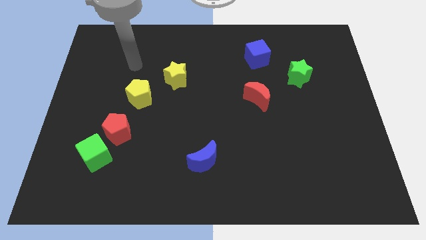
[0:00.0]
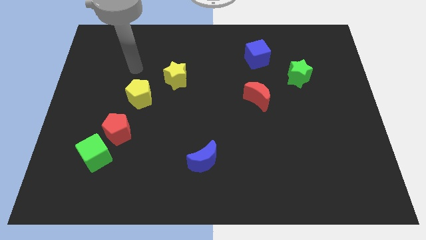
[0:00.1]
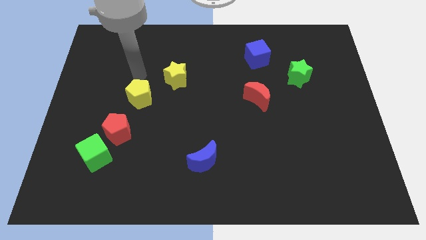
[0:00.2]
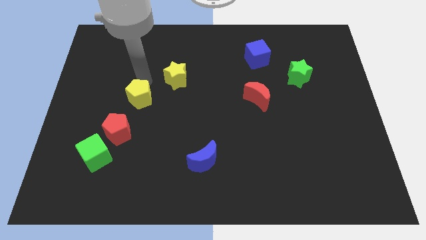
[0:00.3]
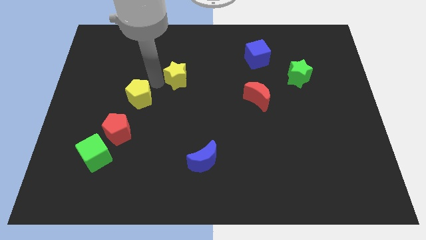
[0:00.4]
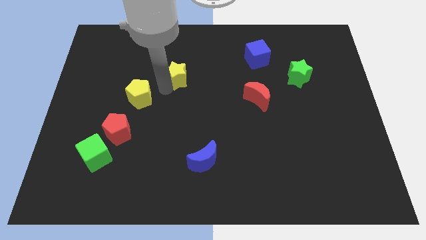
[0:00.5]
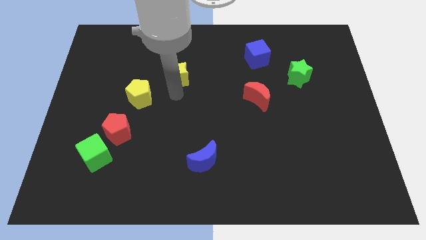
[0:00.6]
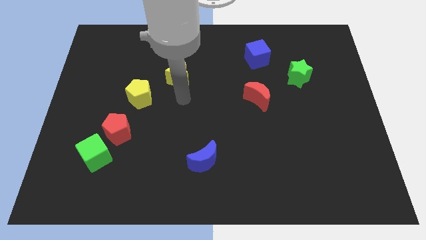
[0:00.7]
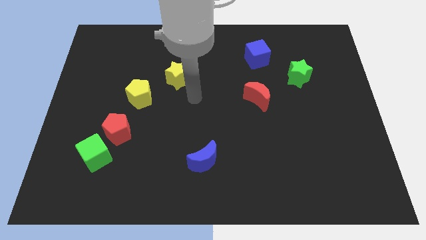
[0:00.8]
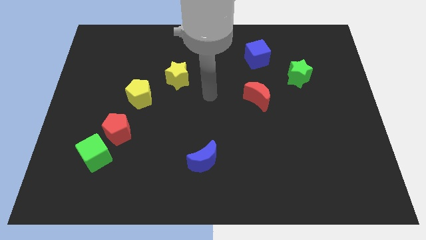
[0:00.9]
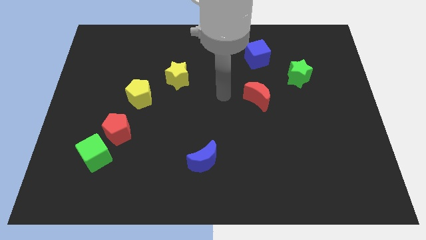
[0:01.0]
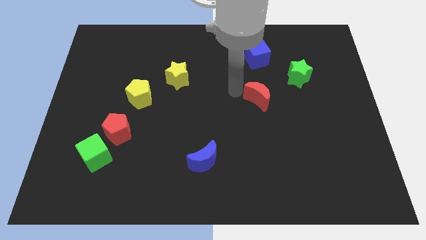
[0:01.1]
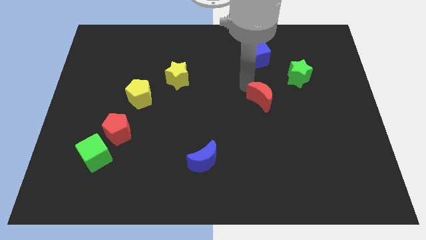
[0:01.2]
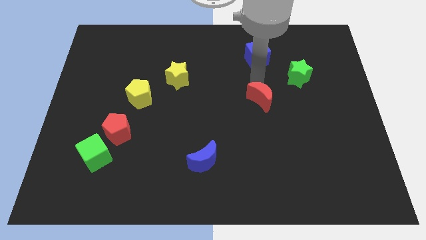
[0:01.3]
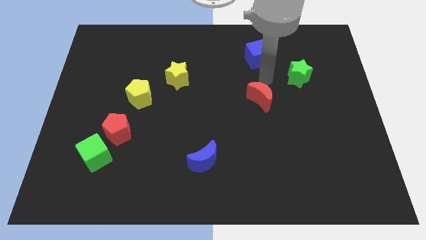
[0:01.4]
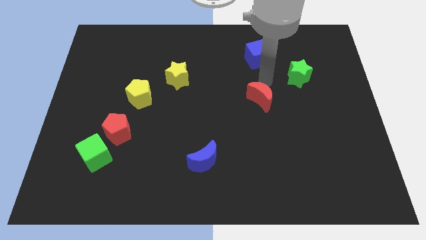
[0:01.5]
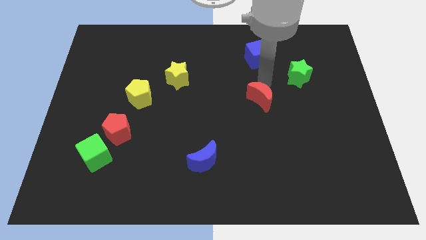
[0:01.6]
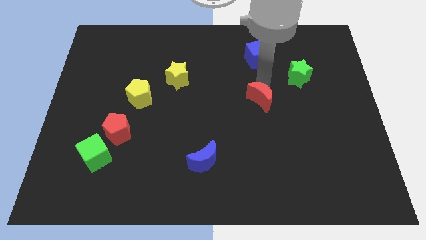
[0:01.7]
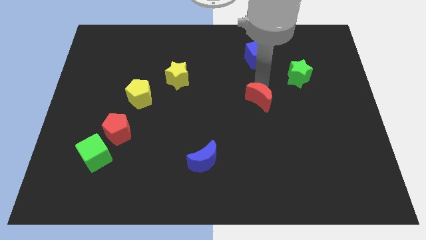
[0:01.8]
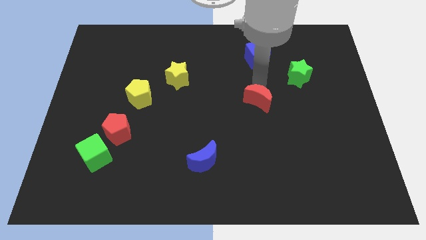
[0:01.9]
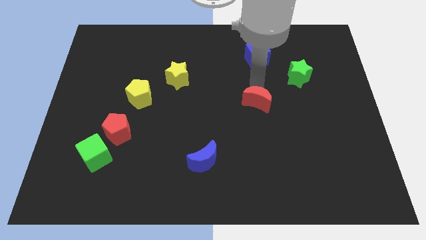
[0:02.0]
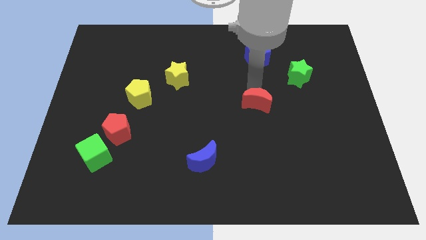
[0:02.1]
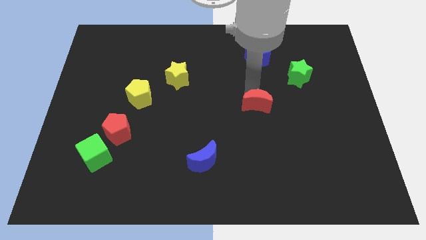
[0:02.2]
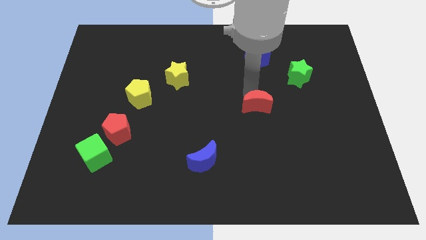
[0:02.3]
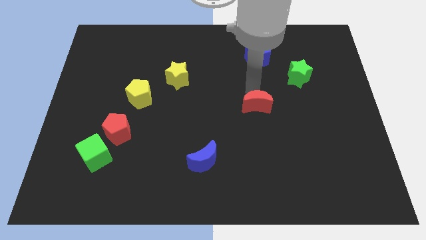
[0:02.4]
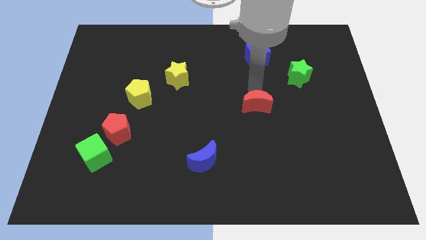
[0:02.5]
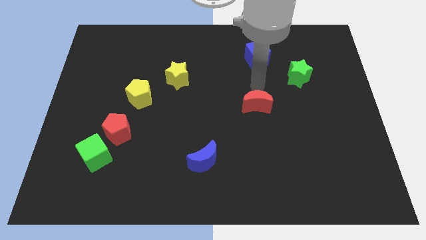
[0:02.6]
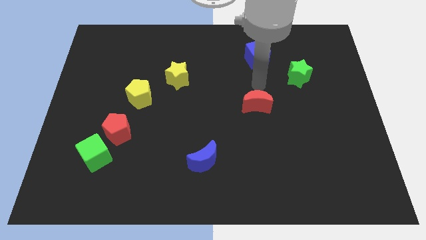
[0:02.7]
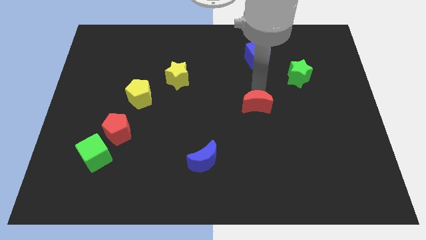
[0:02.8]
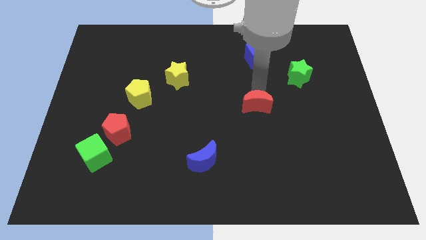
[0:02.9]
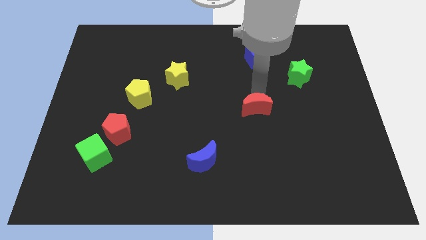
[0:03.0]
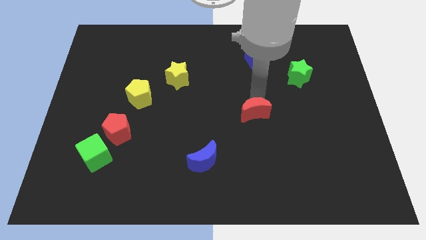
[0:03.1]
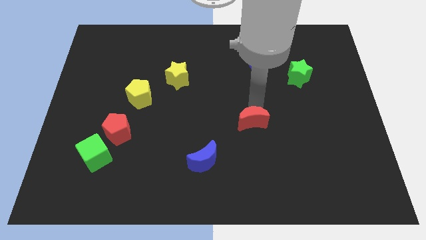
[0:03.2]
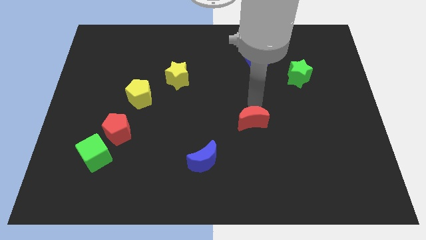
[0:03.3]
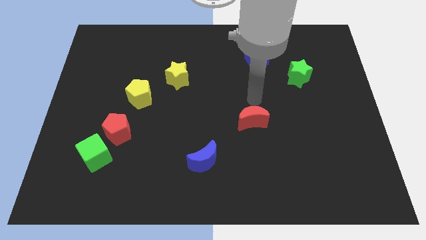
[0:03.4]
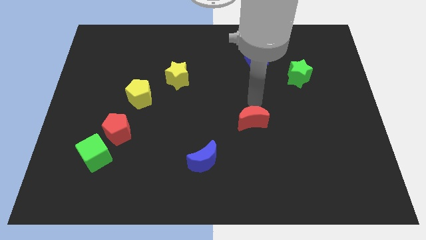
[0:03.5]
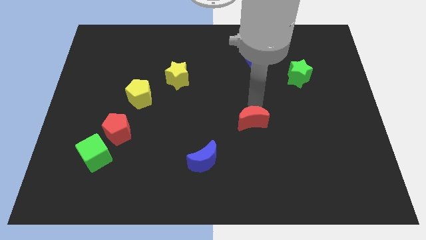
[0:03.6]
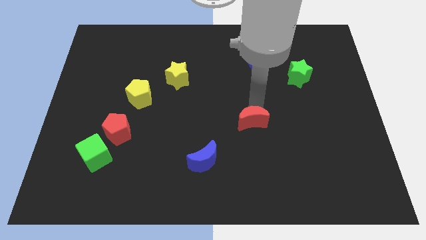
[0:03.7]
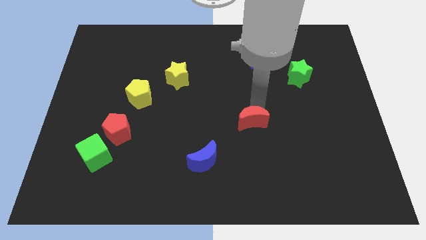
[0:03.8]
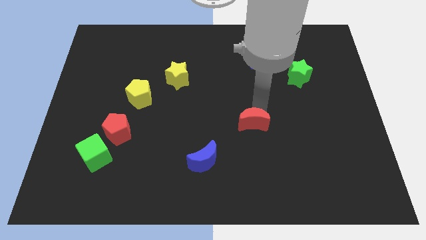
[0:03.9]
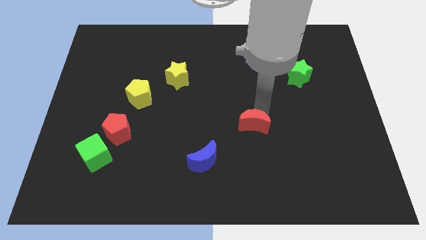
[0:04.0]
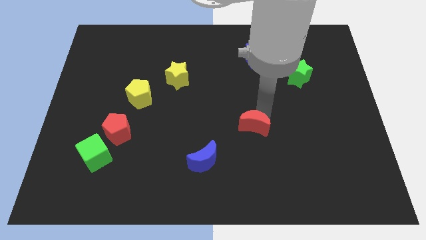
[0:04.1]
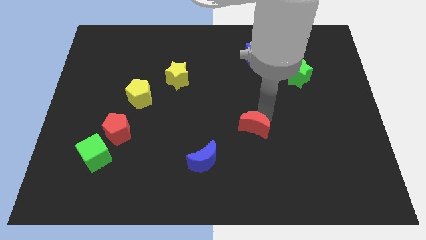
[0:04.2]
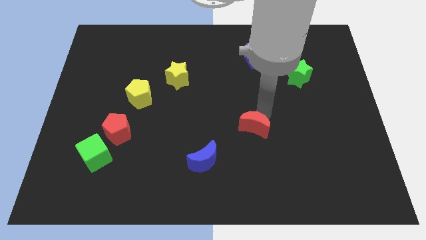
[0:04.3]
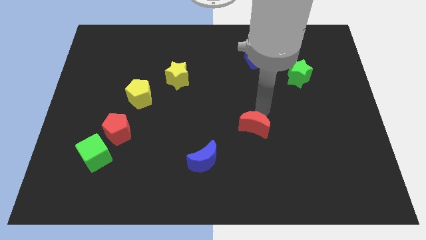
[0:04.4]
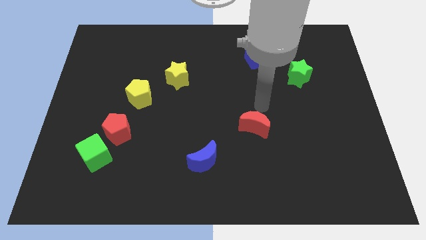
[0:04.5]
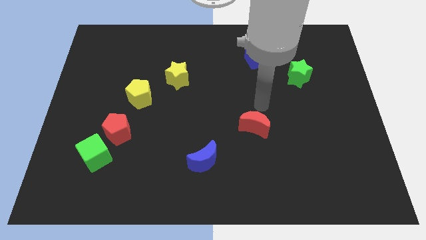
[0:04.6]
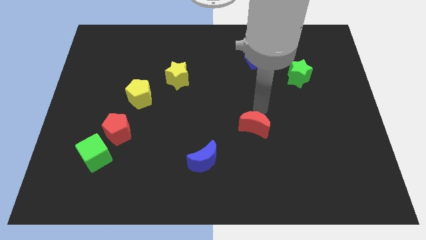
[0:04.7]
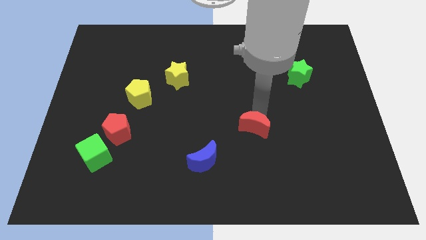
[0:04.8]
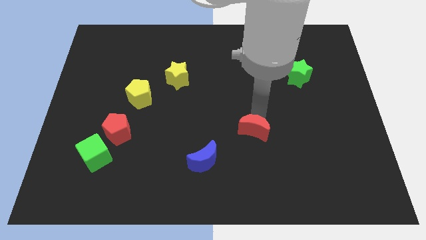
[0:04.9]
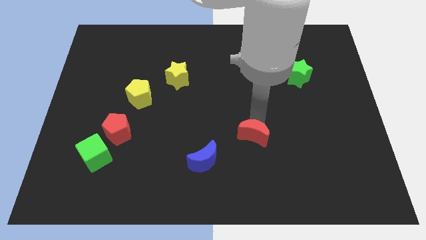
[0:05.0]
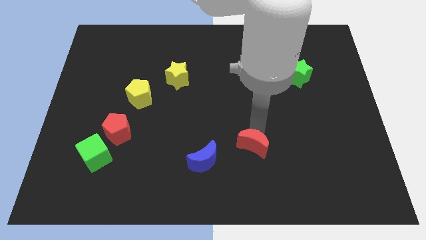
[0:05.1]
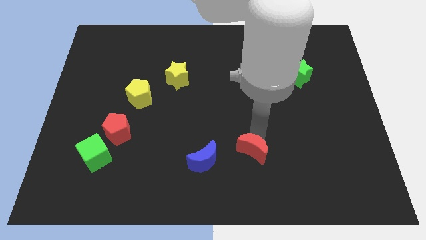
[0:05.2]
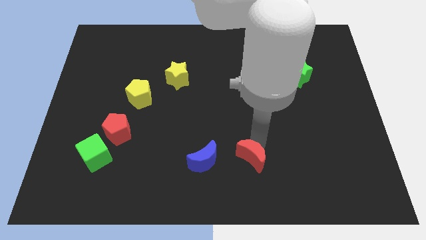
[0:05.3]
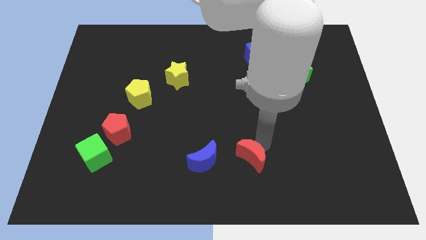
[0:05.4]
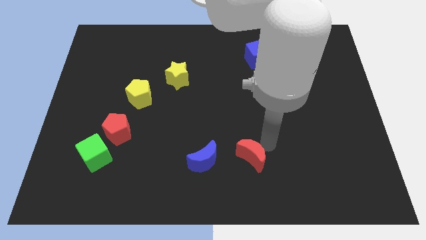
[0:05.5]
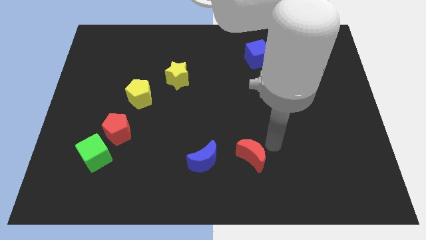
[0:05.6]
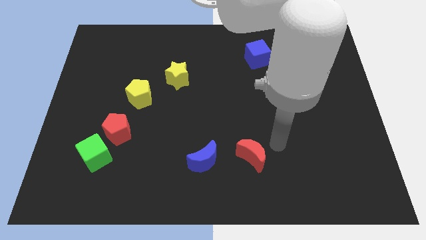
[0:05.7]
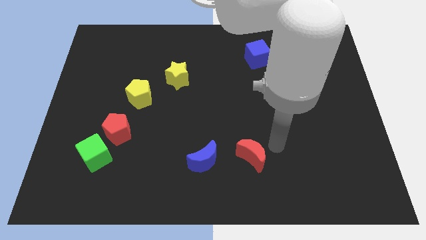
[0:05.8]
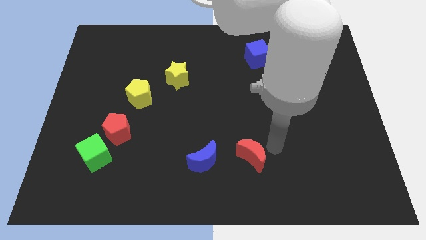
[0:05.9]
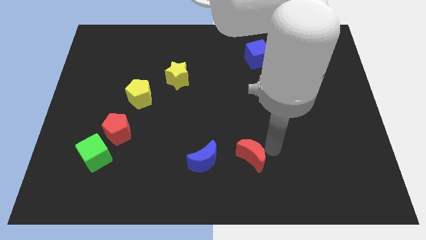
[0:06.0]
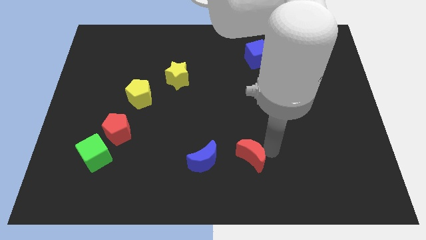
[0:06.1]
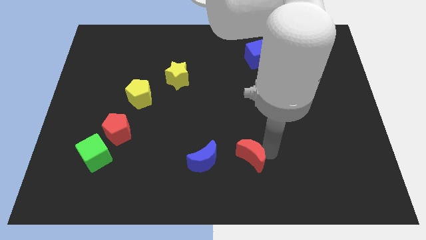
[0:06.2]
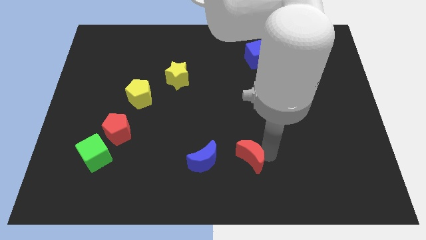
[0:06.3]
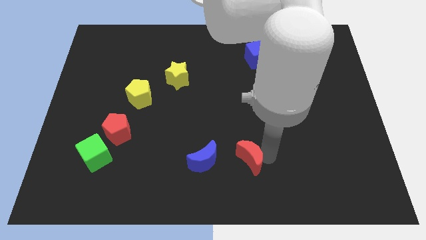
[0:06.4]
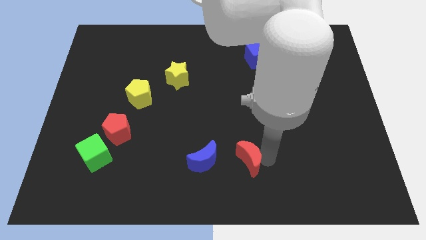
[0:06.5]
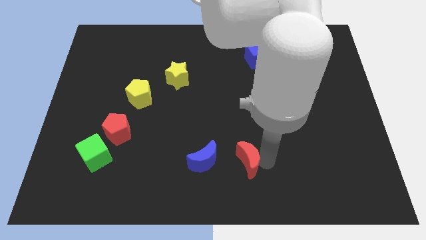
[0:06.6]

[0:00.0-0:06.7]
push the red moon to the bottom side

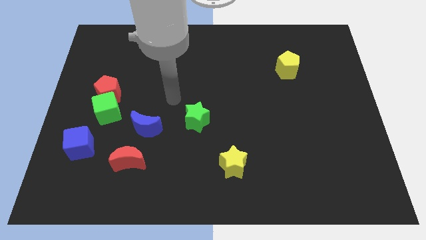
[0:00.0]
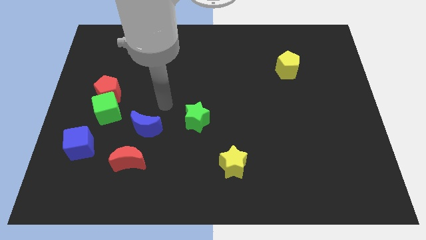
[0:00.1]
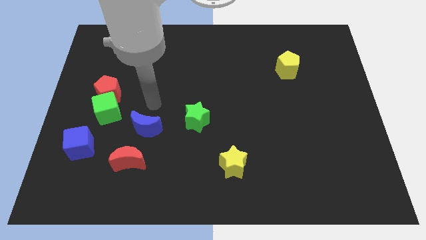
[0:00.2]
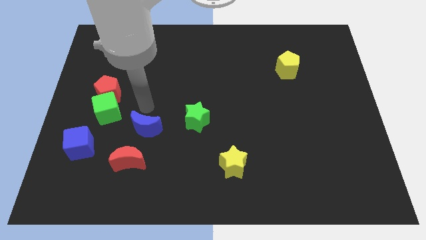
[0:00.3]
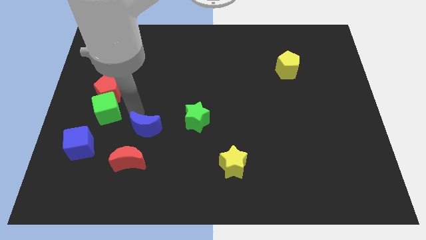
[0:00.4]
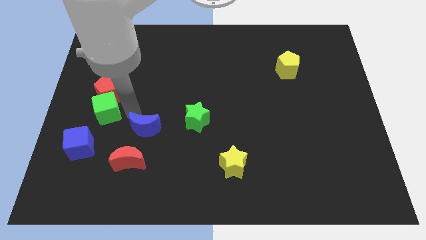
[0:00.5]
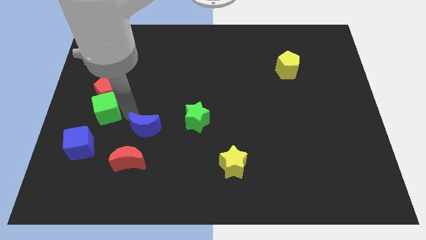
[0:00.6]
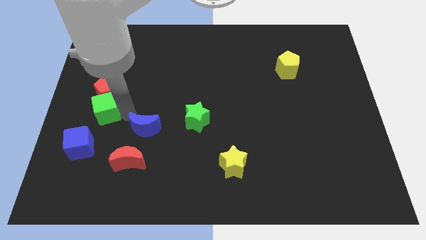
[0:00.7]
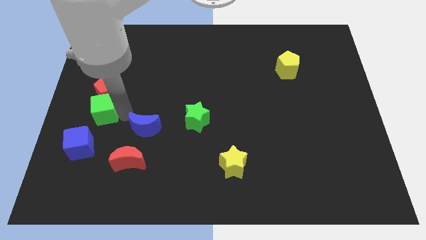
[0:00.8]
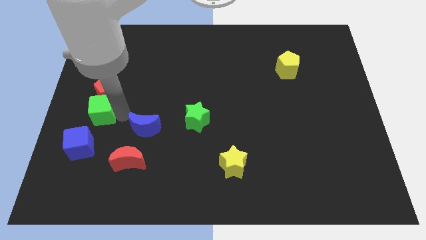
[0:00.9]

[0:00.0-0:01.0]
move the green cube to the left side of the board

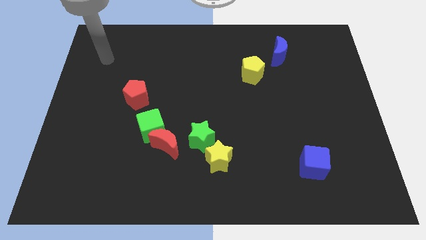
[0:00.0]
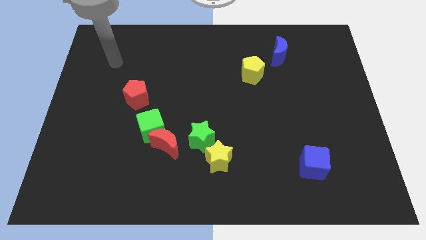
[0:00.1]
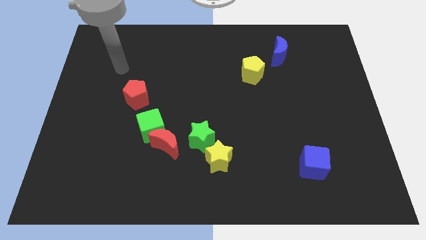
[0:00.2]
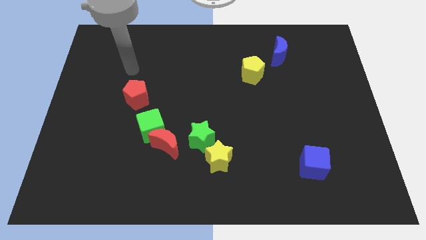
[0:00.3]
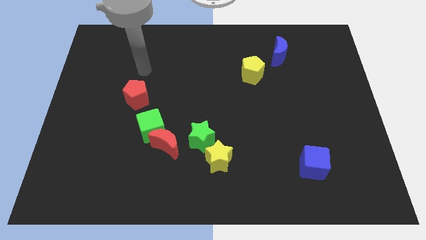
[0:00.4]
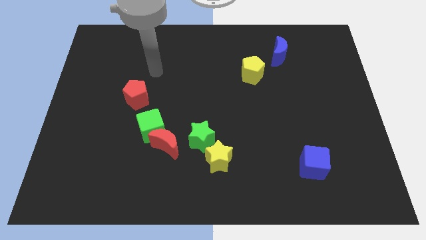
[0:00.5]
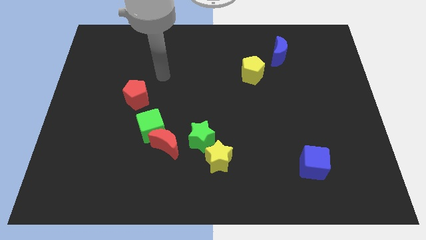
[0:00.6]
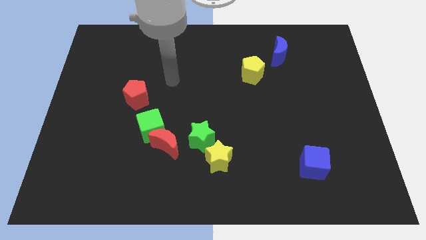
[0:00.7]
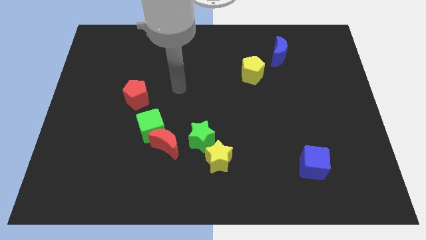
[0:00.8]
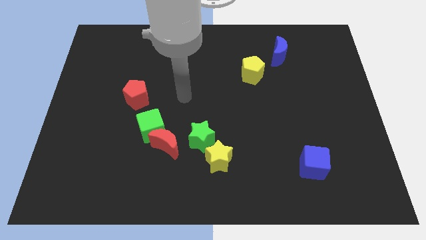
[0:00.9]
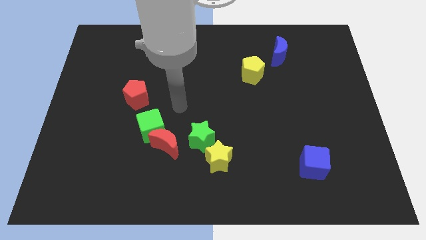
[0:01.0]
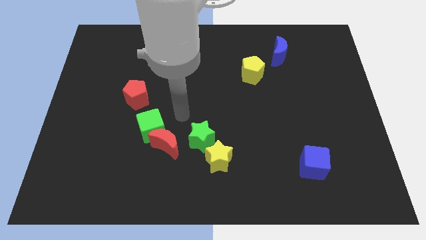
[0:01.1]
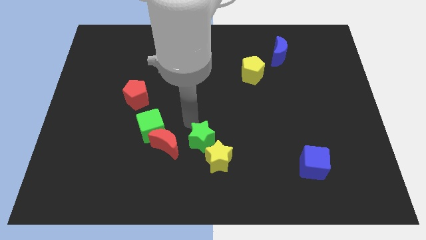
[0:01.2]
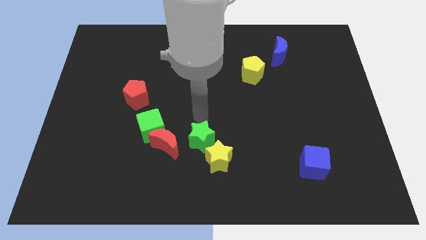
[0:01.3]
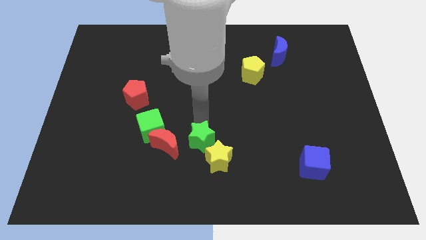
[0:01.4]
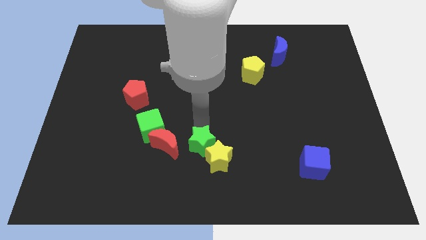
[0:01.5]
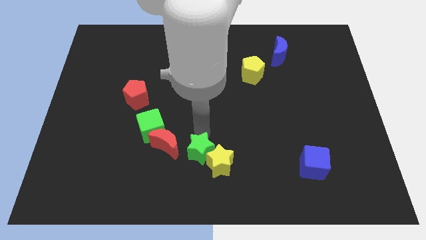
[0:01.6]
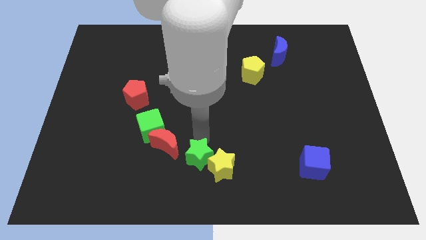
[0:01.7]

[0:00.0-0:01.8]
move the green star to the bottom side
